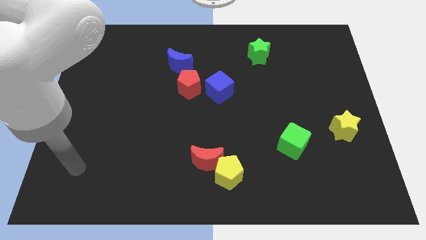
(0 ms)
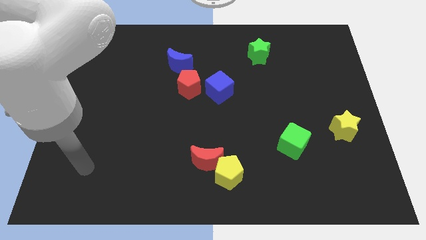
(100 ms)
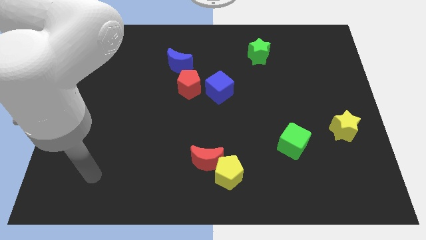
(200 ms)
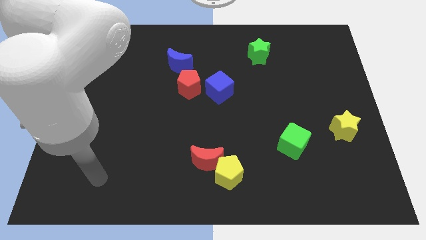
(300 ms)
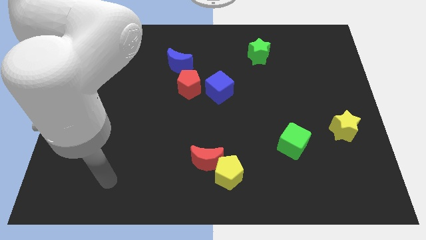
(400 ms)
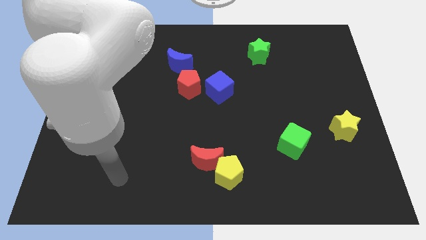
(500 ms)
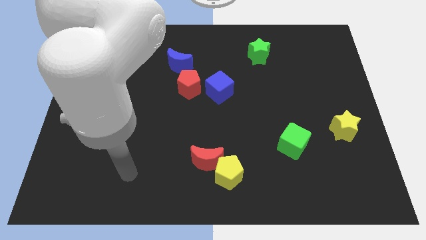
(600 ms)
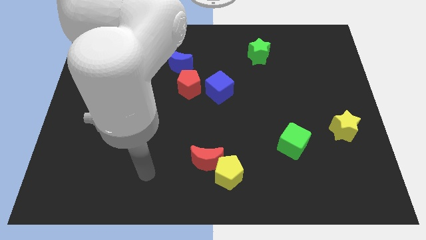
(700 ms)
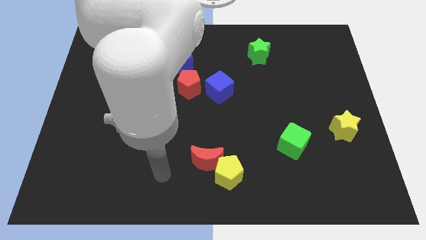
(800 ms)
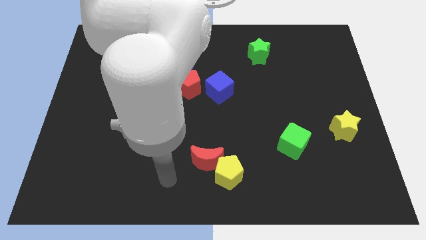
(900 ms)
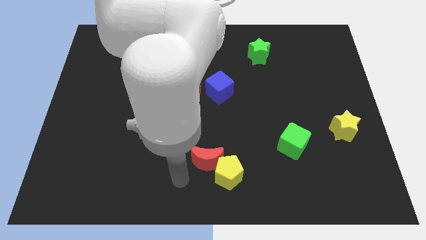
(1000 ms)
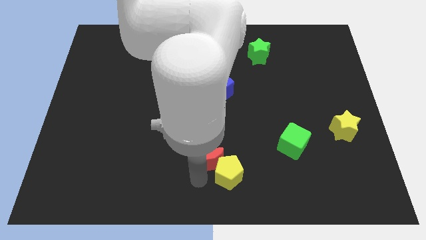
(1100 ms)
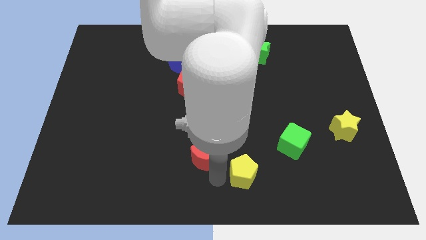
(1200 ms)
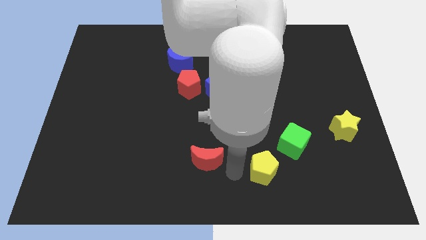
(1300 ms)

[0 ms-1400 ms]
move the red moon away from the yellow pentagon

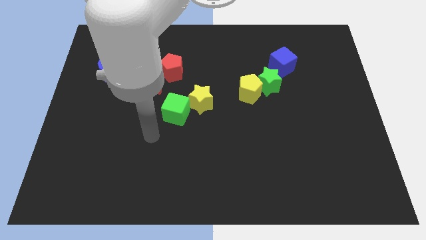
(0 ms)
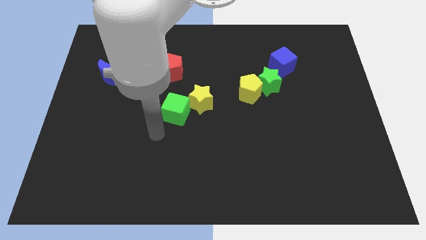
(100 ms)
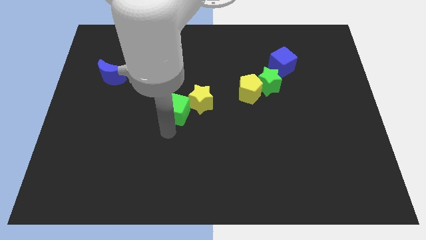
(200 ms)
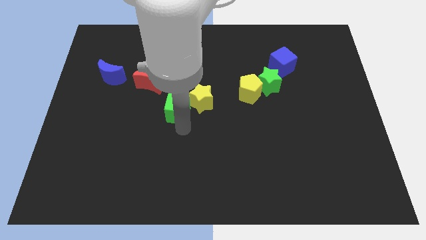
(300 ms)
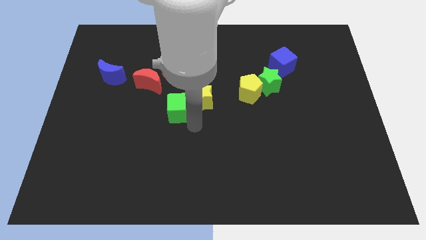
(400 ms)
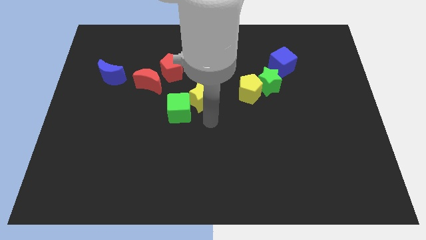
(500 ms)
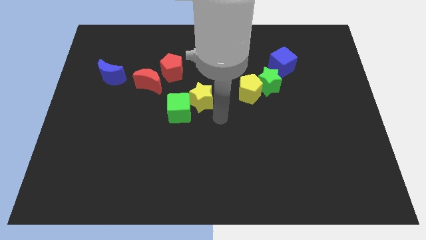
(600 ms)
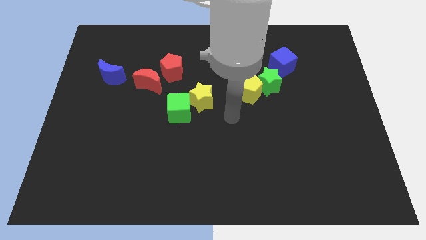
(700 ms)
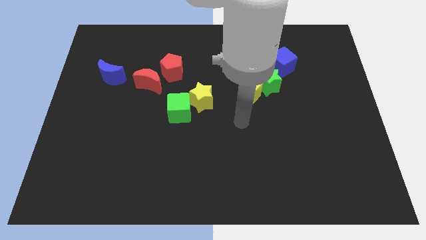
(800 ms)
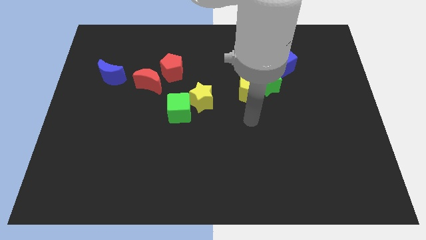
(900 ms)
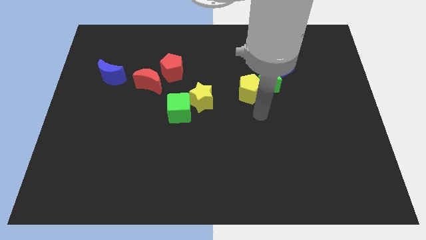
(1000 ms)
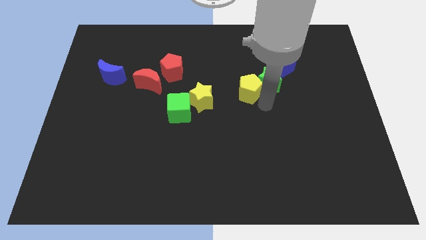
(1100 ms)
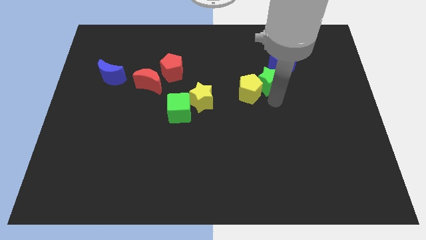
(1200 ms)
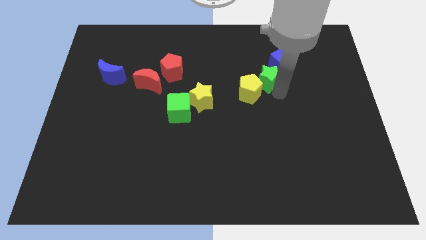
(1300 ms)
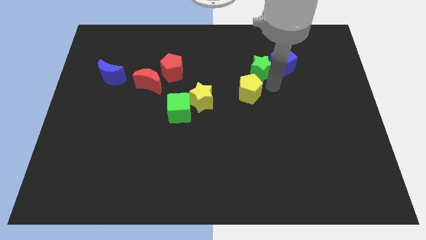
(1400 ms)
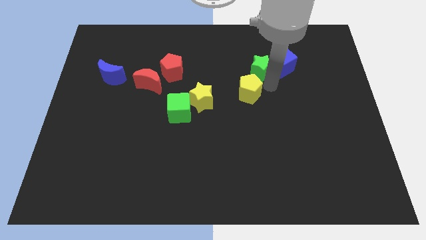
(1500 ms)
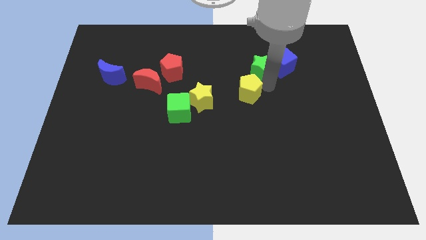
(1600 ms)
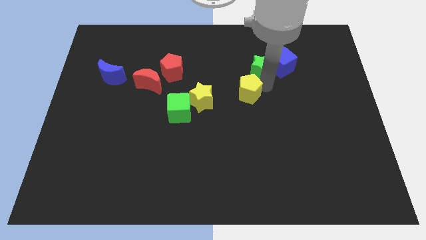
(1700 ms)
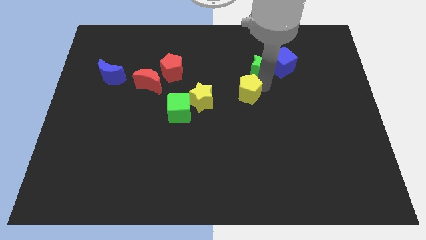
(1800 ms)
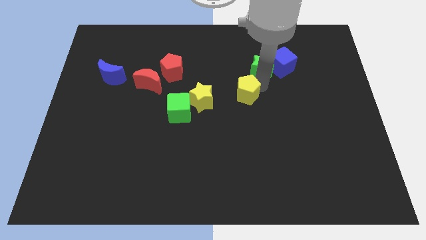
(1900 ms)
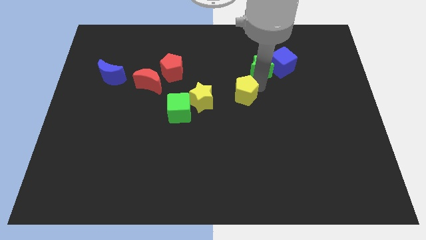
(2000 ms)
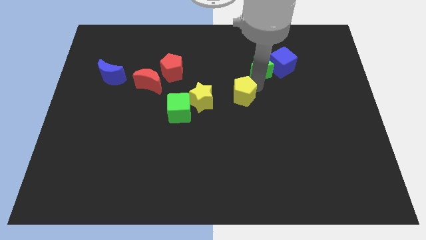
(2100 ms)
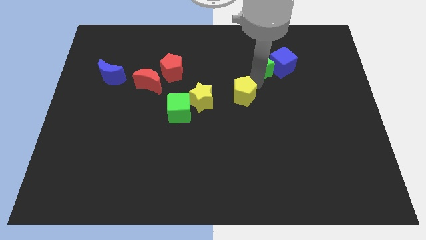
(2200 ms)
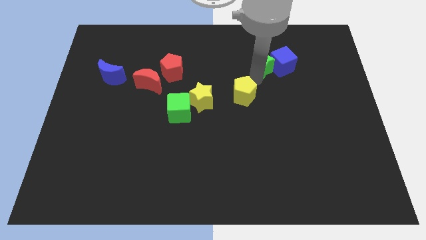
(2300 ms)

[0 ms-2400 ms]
pull the yellow pentagon apart from the green star

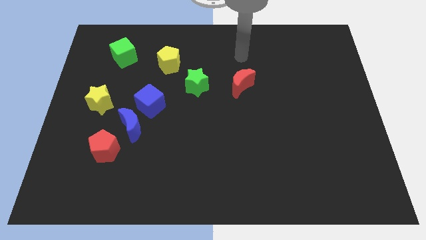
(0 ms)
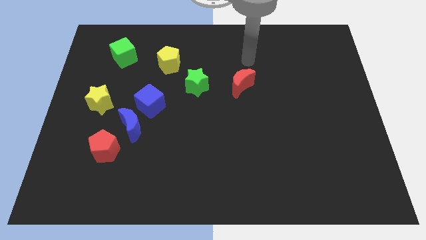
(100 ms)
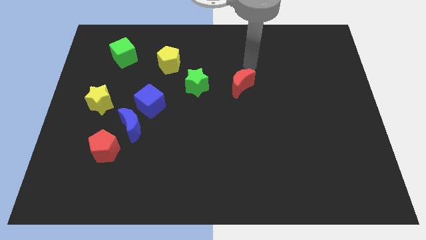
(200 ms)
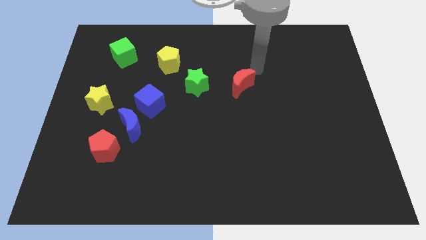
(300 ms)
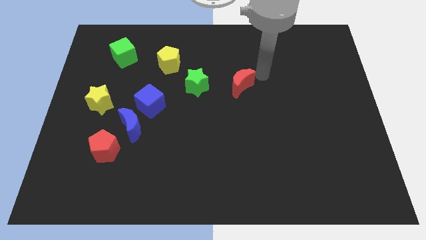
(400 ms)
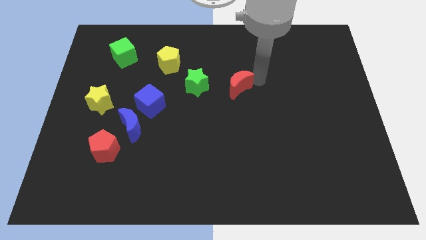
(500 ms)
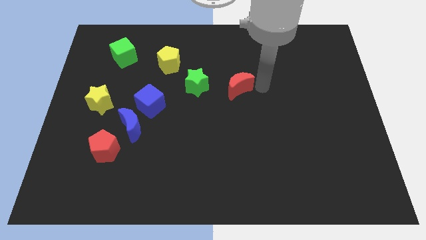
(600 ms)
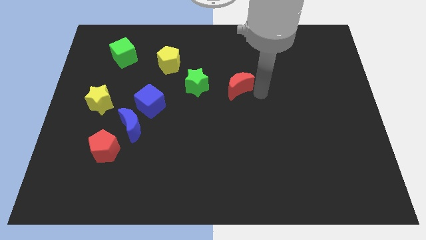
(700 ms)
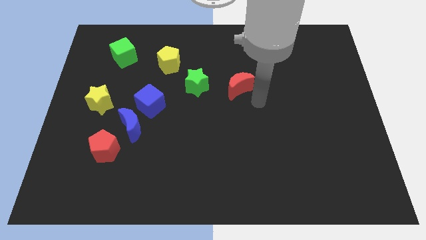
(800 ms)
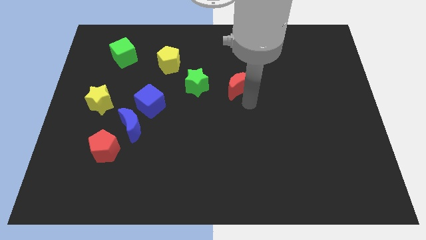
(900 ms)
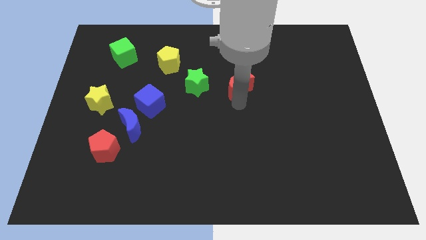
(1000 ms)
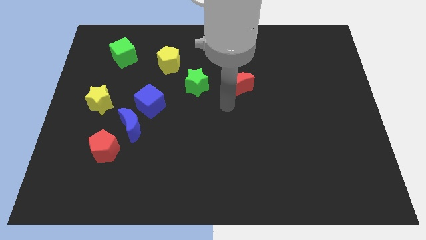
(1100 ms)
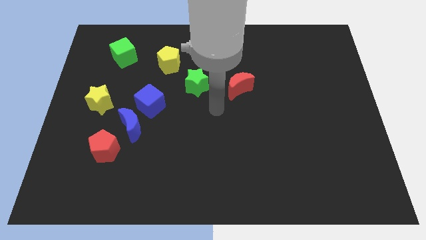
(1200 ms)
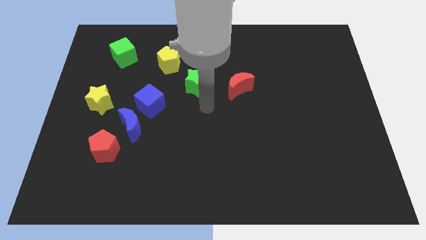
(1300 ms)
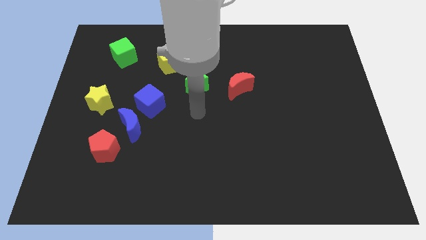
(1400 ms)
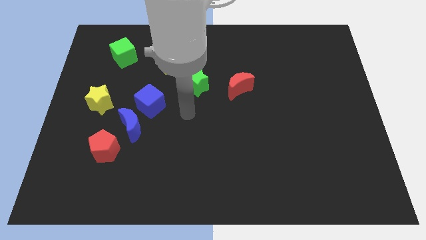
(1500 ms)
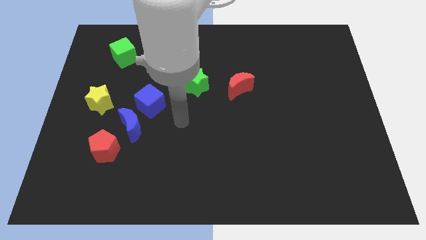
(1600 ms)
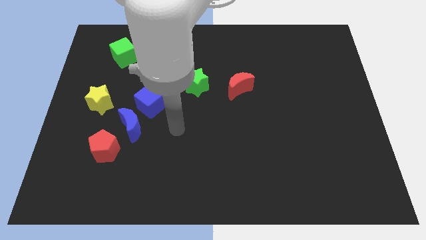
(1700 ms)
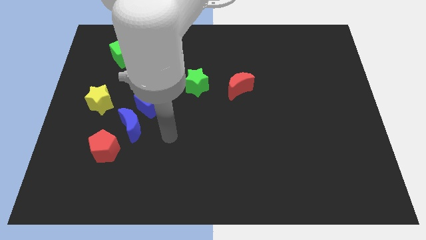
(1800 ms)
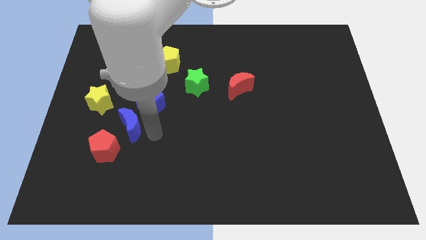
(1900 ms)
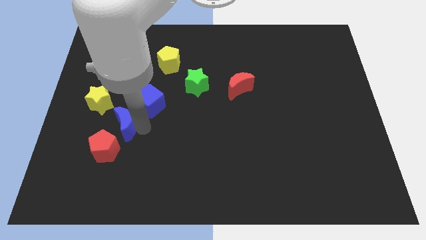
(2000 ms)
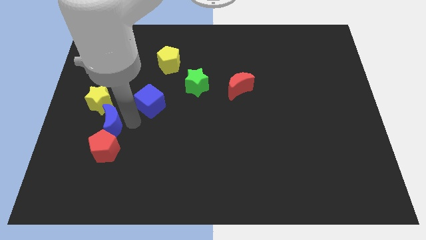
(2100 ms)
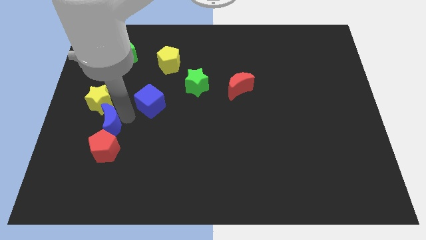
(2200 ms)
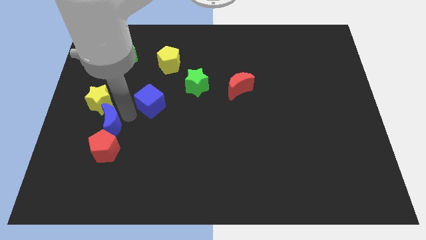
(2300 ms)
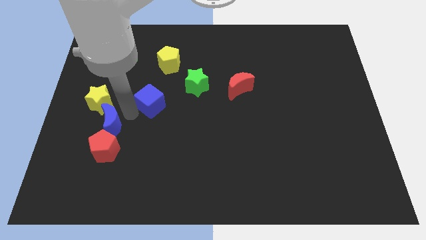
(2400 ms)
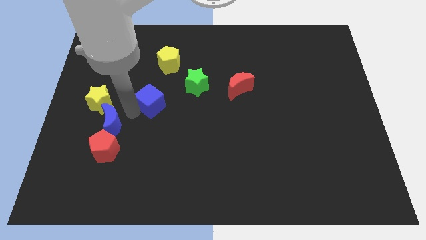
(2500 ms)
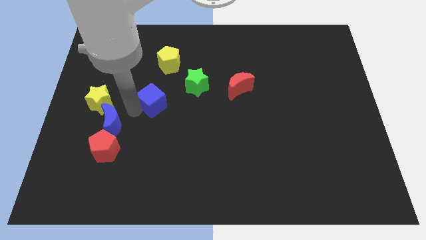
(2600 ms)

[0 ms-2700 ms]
separate the blue cube from the blue moon

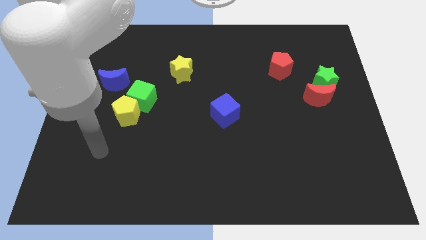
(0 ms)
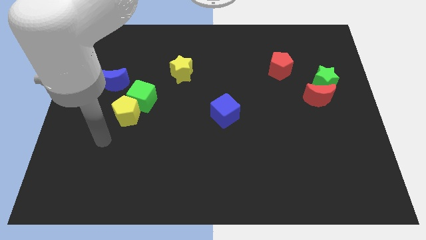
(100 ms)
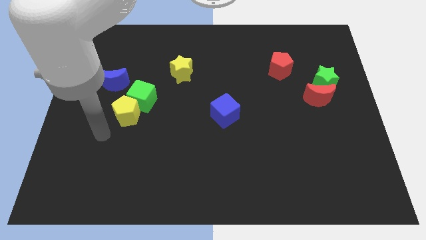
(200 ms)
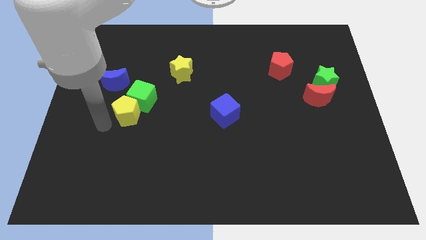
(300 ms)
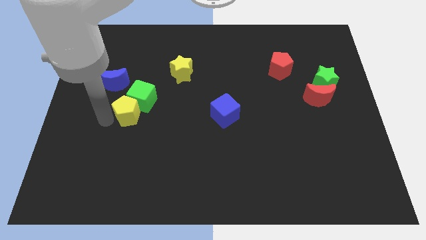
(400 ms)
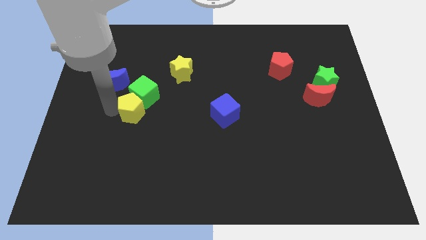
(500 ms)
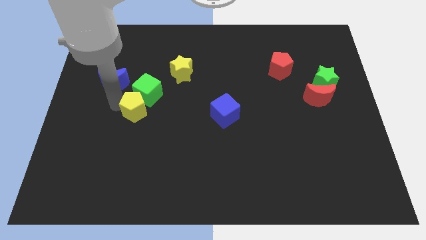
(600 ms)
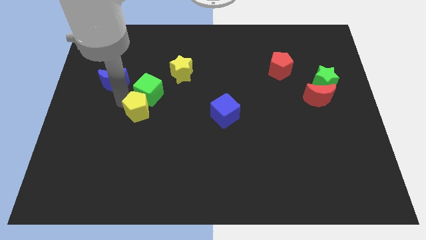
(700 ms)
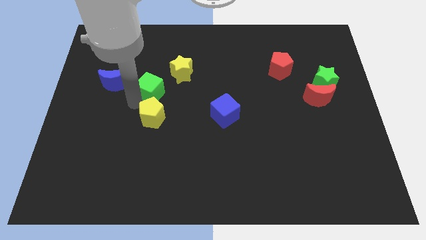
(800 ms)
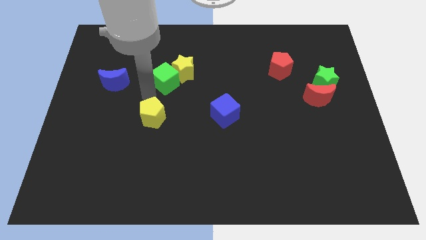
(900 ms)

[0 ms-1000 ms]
move the yellow pentagon away from the green cube

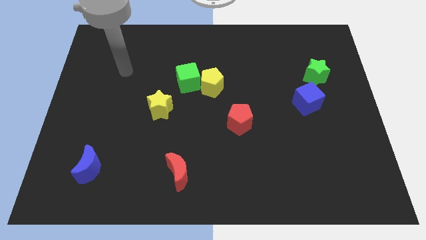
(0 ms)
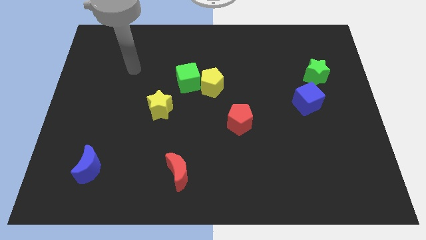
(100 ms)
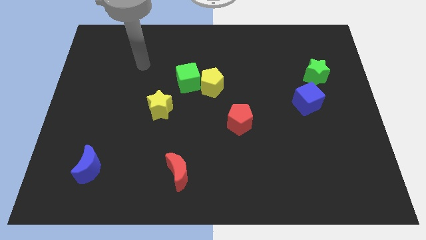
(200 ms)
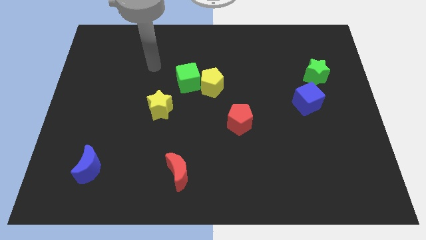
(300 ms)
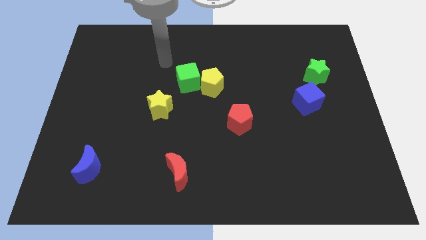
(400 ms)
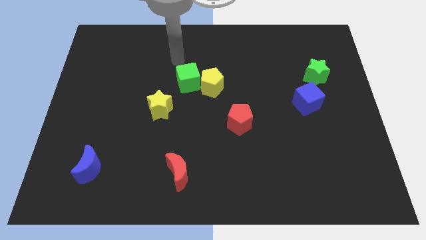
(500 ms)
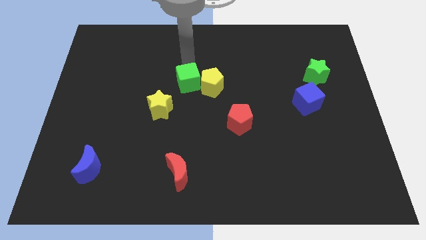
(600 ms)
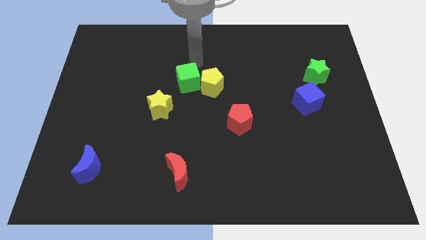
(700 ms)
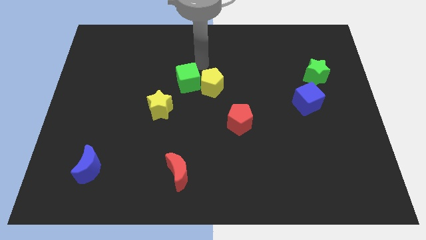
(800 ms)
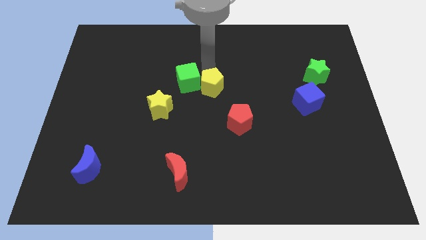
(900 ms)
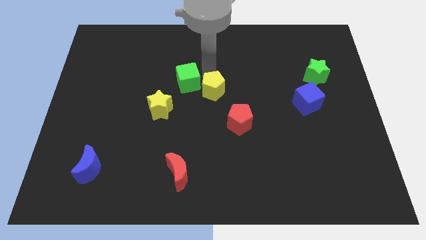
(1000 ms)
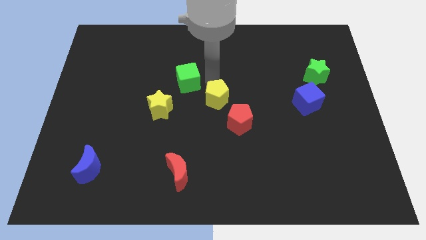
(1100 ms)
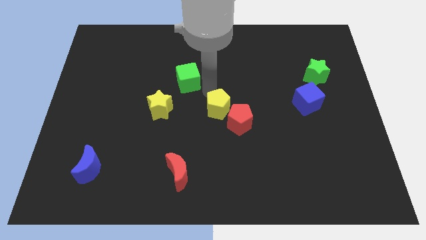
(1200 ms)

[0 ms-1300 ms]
separate the green cube from the yellow pentagon

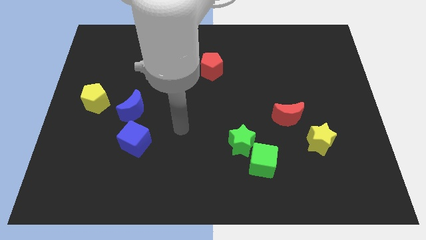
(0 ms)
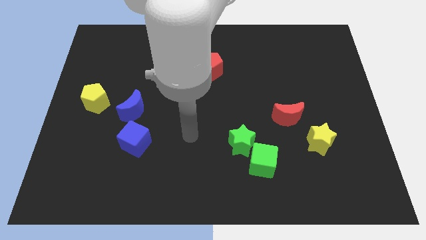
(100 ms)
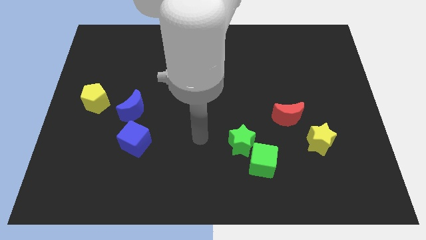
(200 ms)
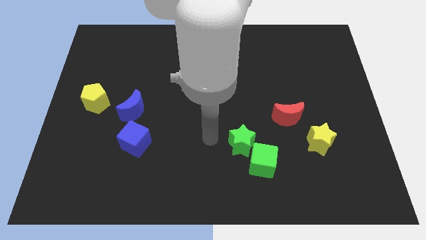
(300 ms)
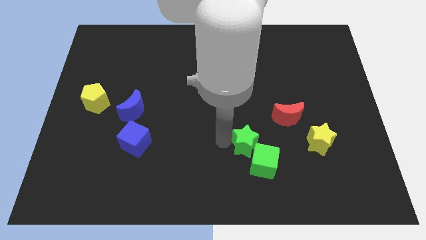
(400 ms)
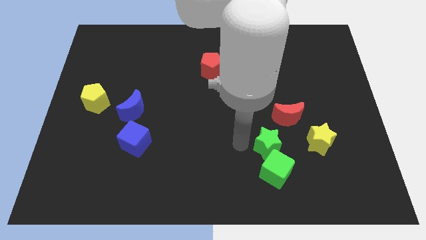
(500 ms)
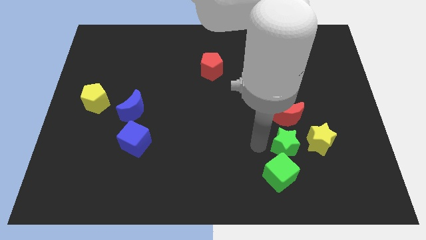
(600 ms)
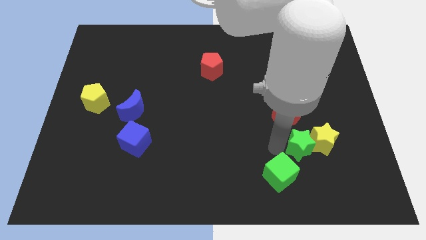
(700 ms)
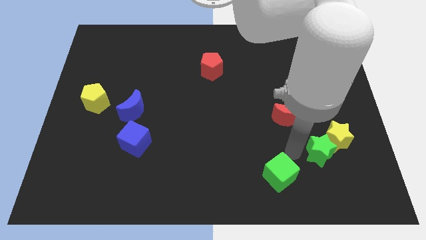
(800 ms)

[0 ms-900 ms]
separate the green cube from the green star
